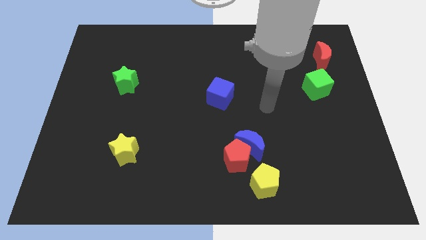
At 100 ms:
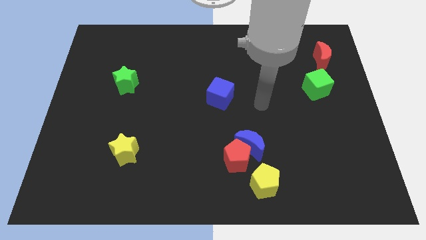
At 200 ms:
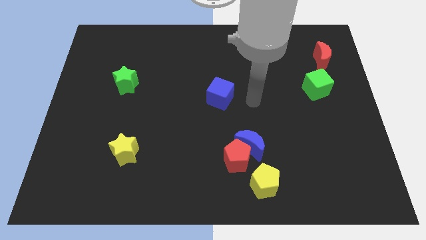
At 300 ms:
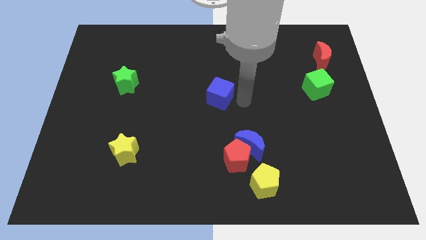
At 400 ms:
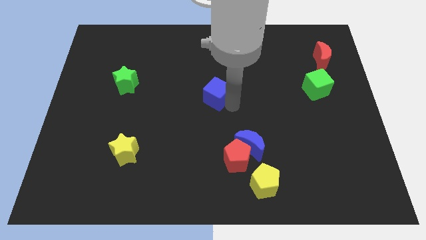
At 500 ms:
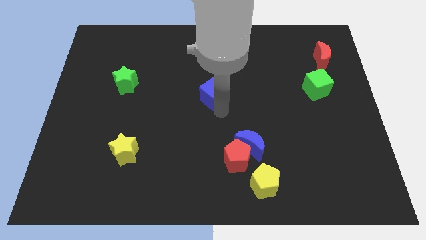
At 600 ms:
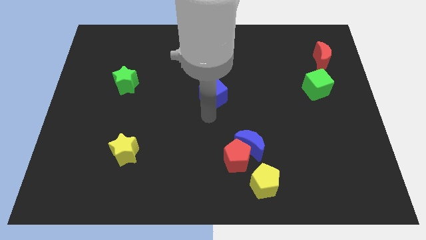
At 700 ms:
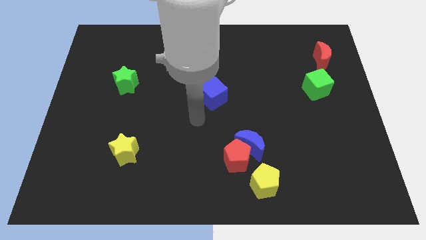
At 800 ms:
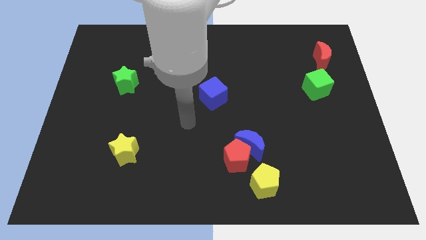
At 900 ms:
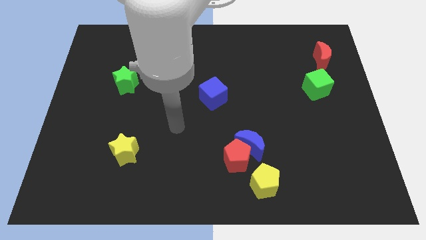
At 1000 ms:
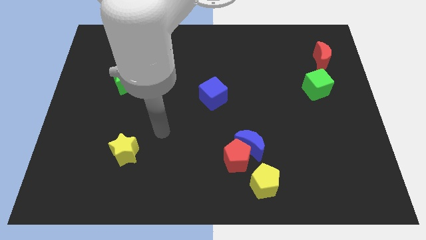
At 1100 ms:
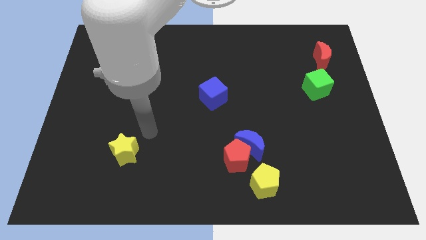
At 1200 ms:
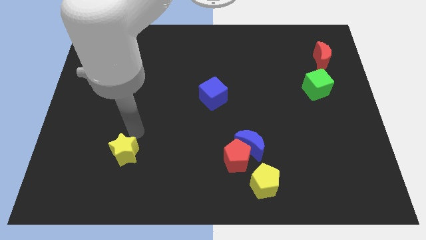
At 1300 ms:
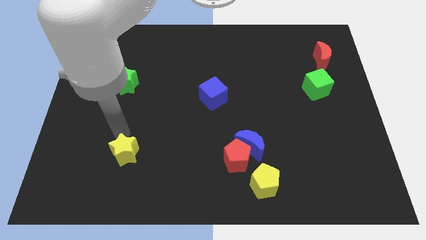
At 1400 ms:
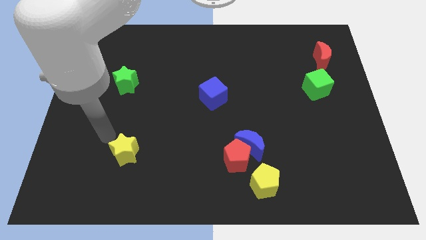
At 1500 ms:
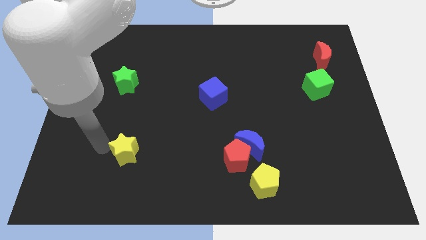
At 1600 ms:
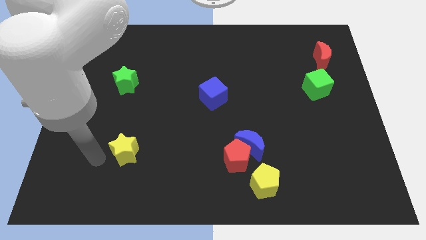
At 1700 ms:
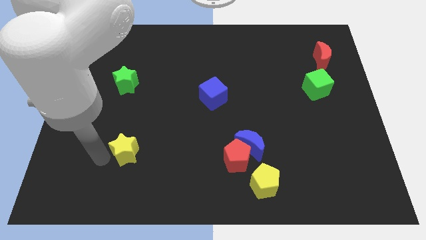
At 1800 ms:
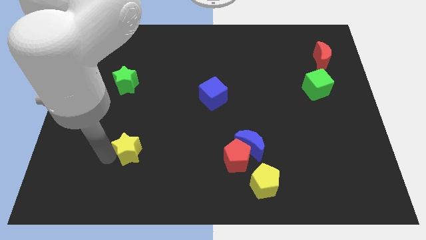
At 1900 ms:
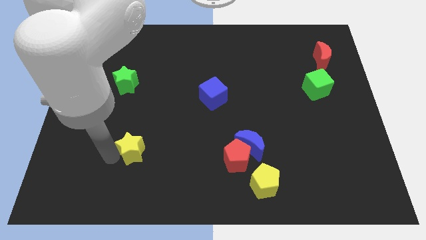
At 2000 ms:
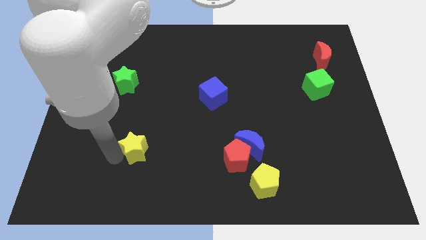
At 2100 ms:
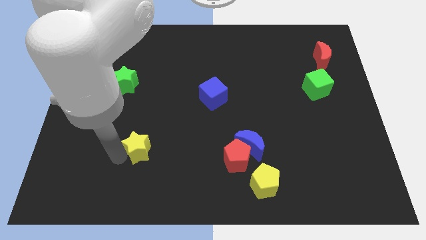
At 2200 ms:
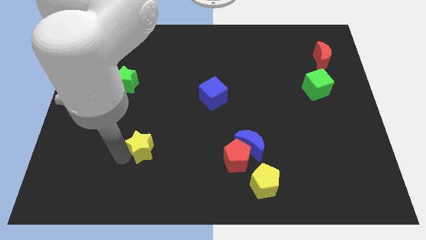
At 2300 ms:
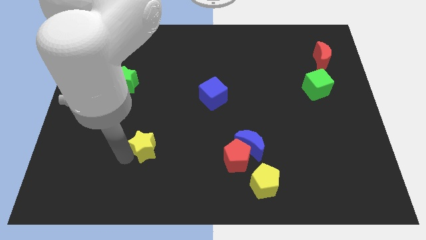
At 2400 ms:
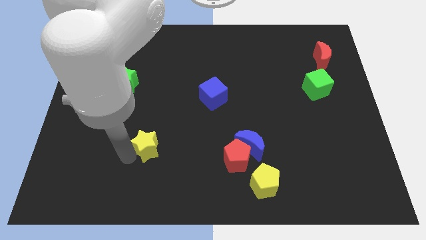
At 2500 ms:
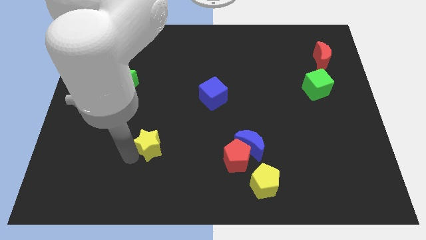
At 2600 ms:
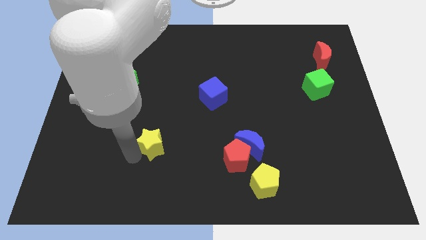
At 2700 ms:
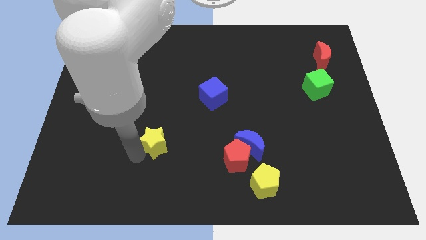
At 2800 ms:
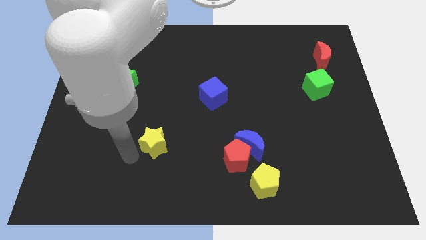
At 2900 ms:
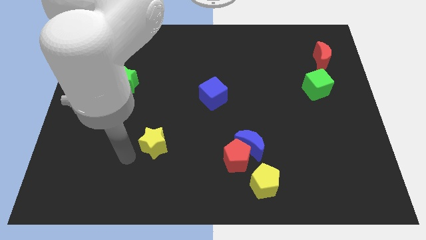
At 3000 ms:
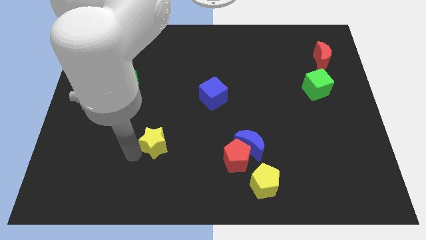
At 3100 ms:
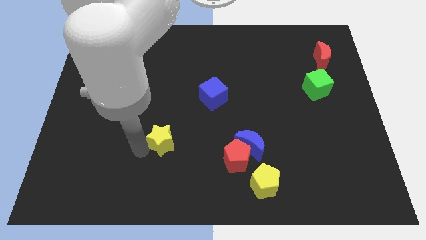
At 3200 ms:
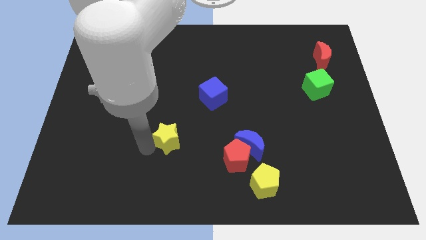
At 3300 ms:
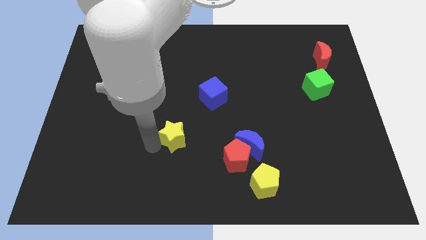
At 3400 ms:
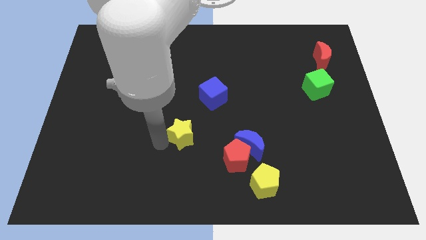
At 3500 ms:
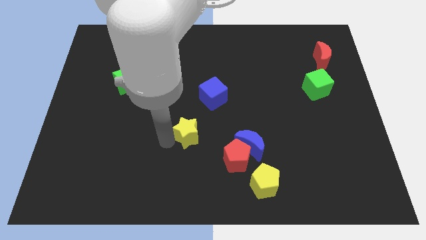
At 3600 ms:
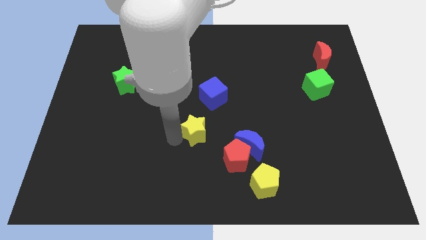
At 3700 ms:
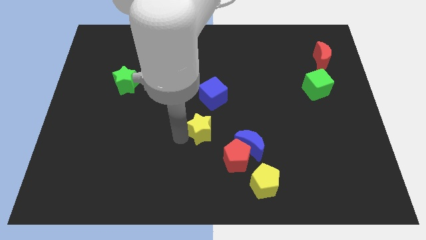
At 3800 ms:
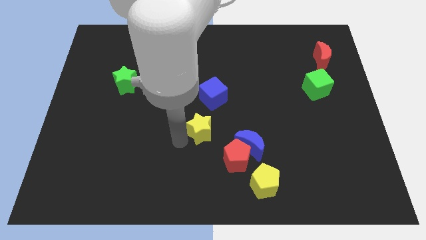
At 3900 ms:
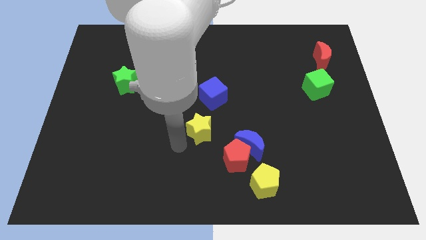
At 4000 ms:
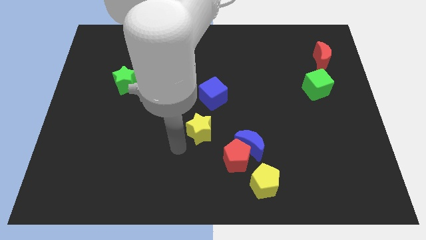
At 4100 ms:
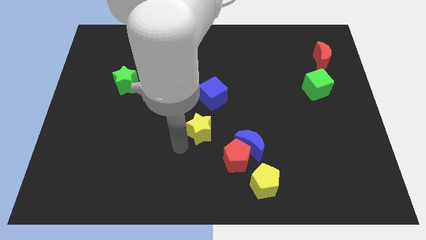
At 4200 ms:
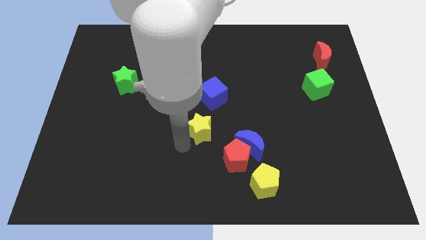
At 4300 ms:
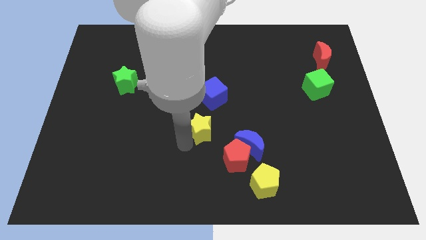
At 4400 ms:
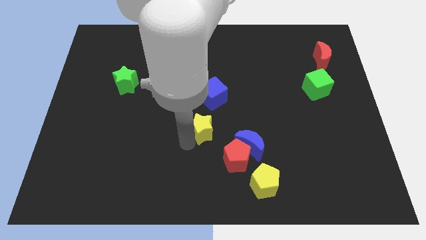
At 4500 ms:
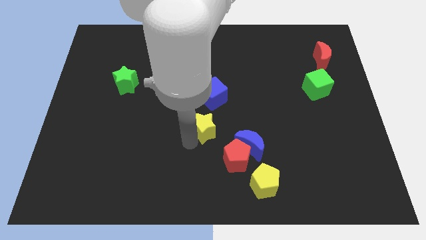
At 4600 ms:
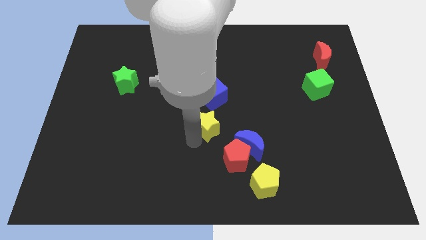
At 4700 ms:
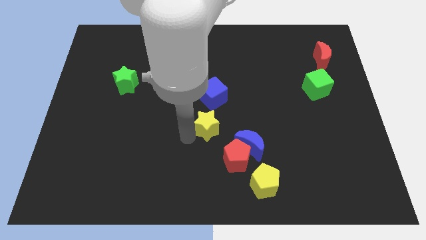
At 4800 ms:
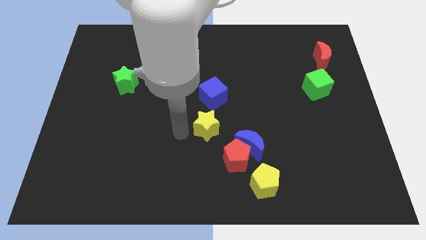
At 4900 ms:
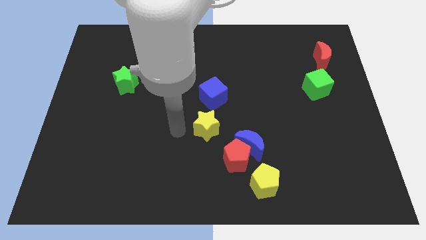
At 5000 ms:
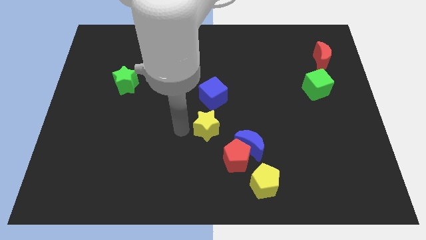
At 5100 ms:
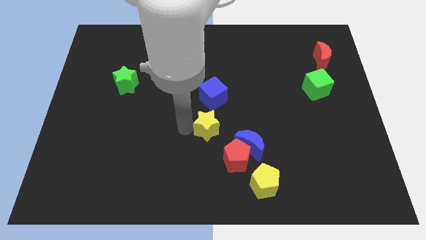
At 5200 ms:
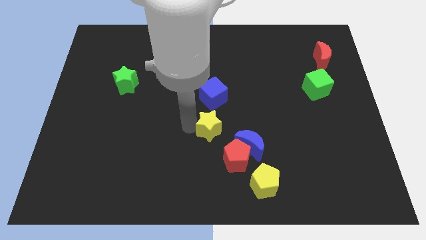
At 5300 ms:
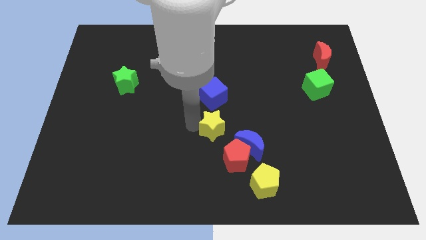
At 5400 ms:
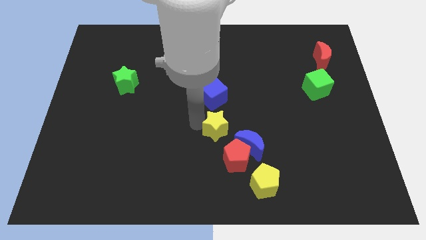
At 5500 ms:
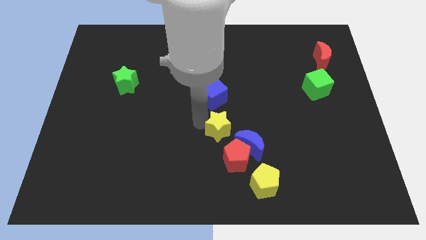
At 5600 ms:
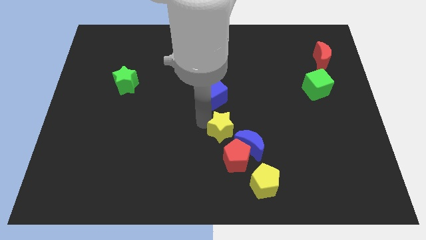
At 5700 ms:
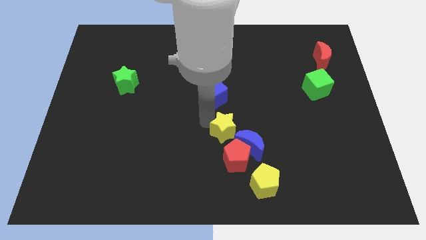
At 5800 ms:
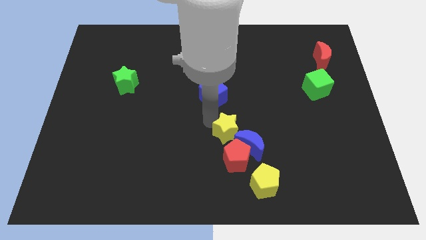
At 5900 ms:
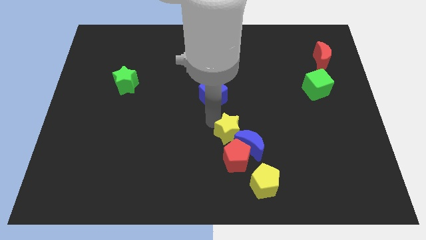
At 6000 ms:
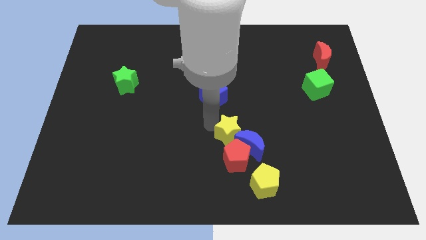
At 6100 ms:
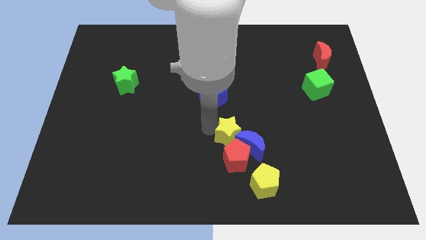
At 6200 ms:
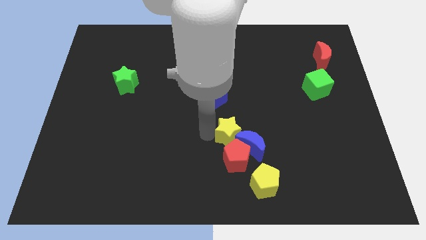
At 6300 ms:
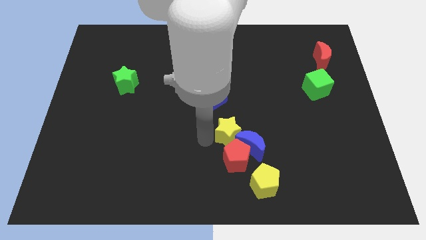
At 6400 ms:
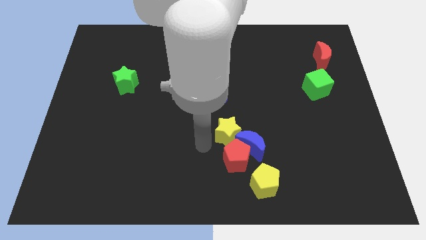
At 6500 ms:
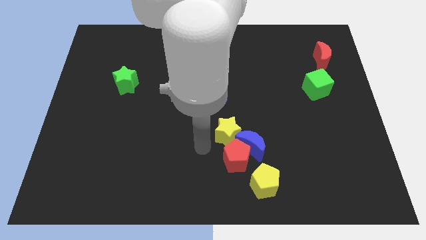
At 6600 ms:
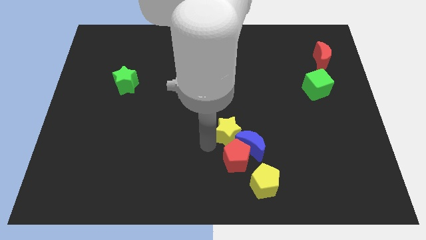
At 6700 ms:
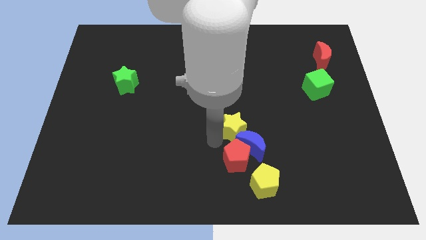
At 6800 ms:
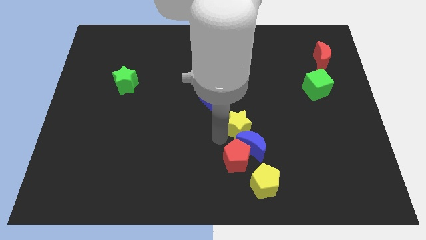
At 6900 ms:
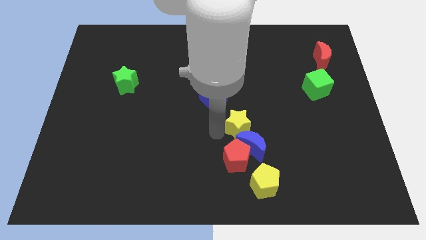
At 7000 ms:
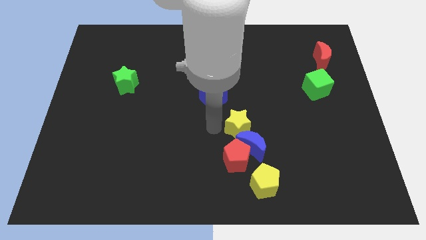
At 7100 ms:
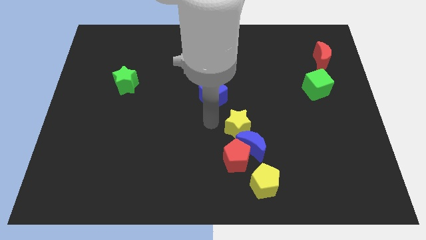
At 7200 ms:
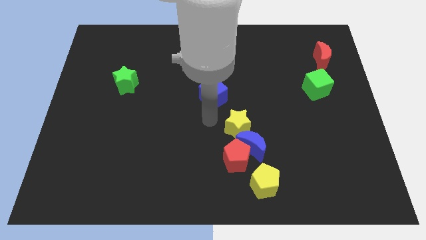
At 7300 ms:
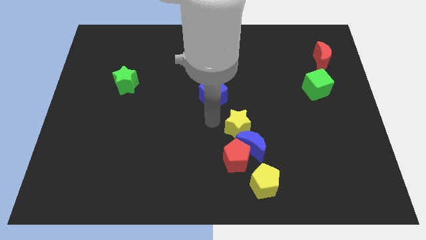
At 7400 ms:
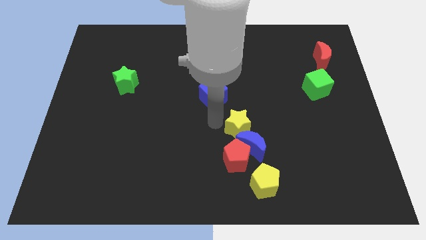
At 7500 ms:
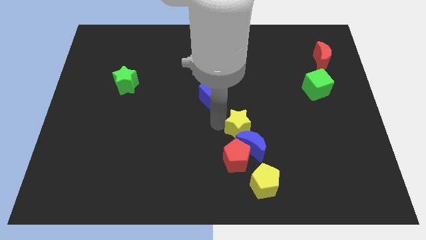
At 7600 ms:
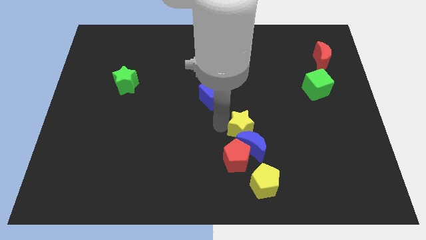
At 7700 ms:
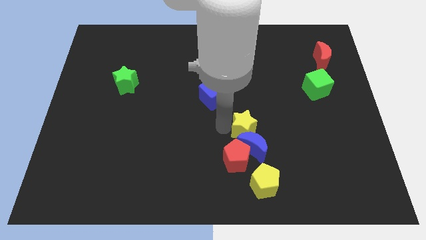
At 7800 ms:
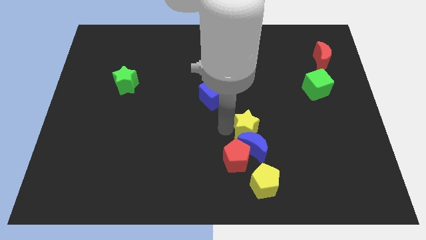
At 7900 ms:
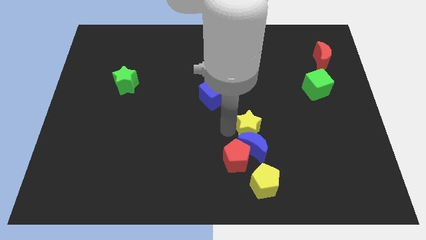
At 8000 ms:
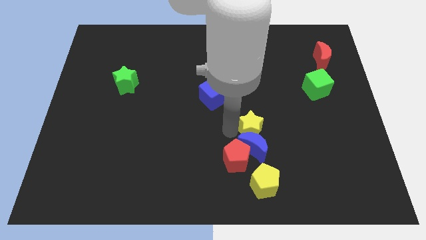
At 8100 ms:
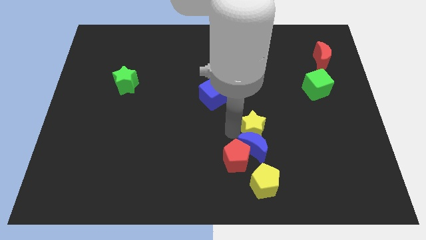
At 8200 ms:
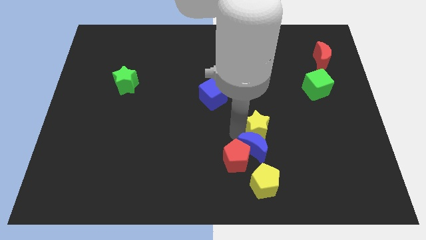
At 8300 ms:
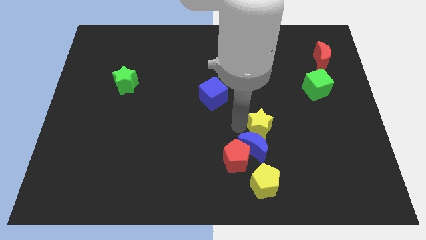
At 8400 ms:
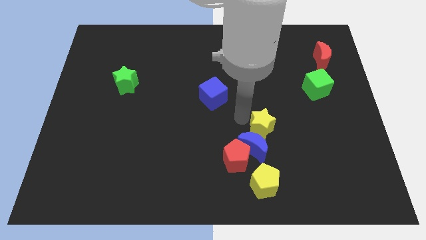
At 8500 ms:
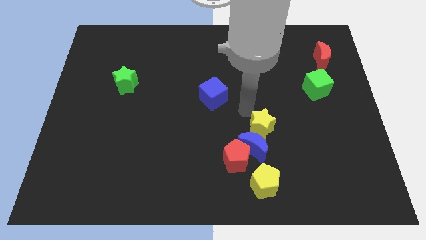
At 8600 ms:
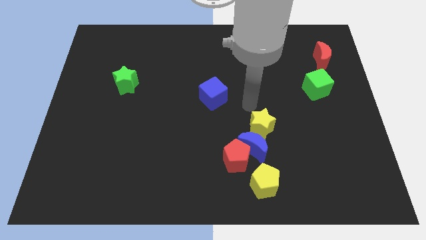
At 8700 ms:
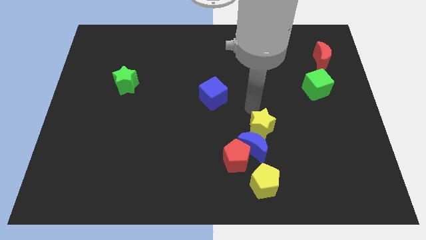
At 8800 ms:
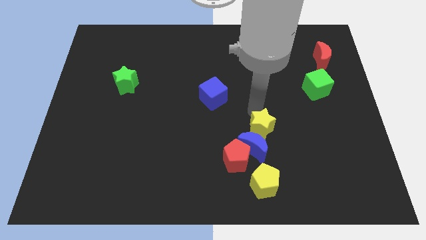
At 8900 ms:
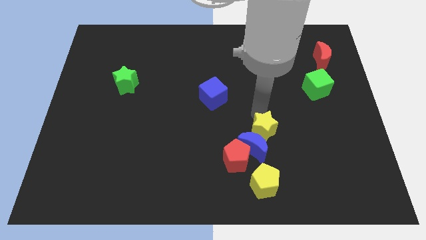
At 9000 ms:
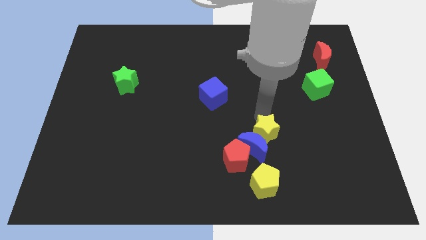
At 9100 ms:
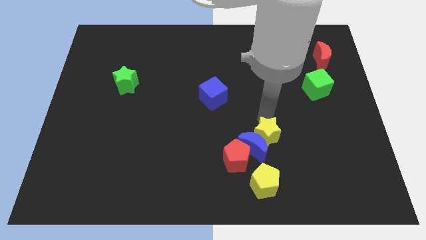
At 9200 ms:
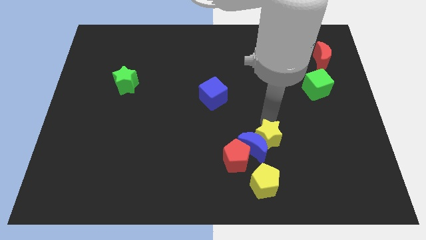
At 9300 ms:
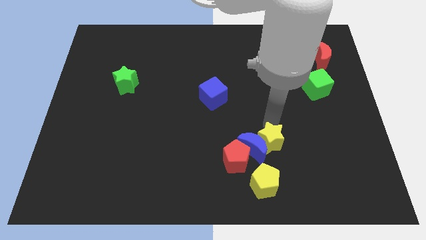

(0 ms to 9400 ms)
put the yellow star to the bottom right of the blue moon
